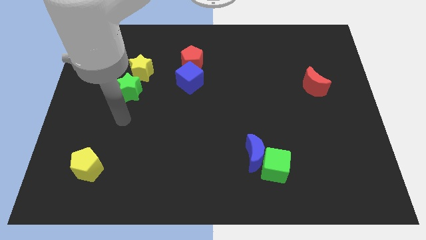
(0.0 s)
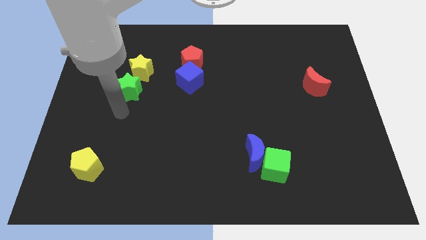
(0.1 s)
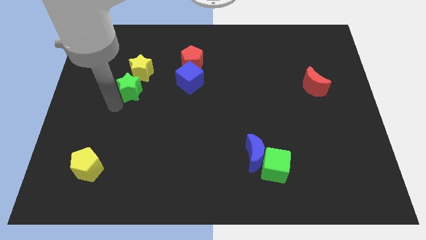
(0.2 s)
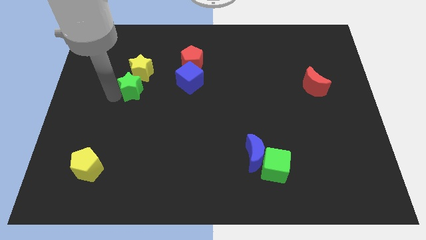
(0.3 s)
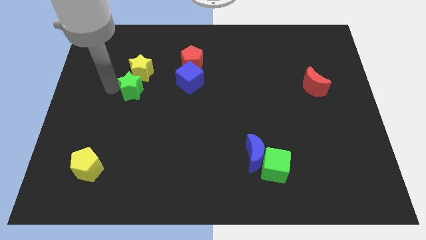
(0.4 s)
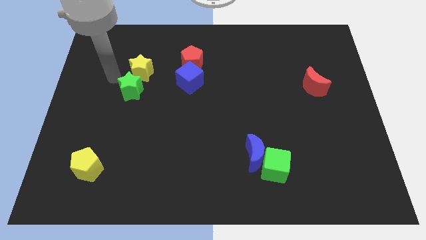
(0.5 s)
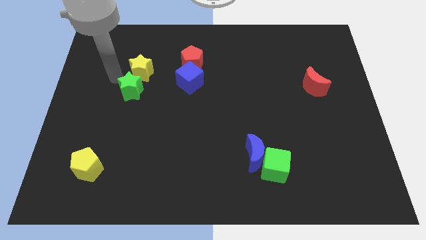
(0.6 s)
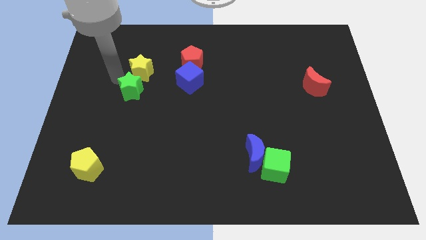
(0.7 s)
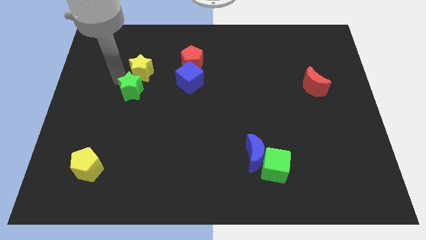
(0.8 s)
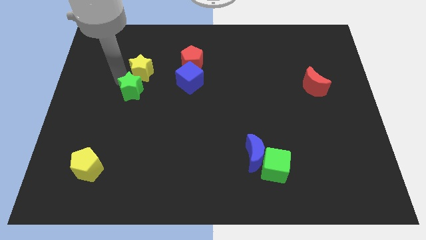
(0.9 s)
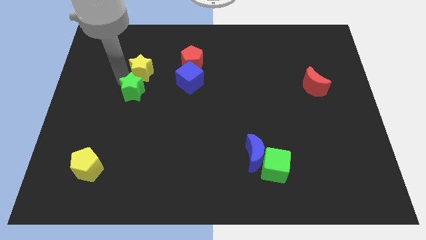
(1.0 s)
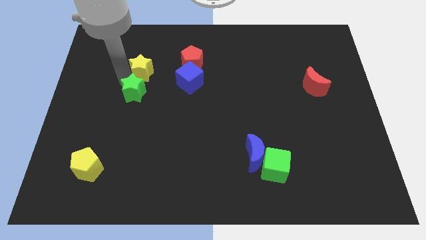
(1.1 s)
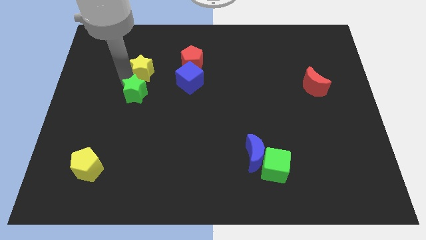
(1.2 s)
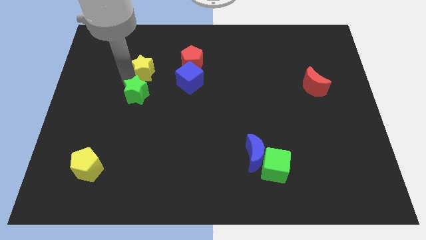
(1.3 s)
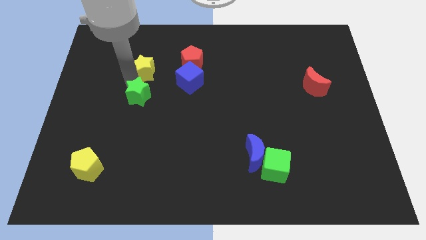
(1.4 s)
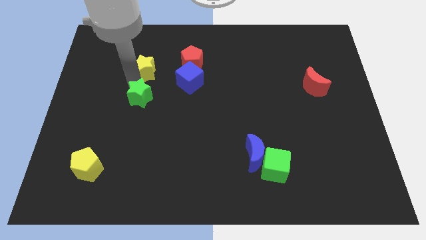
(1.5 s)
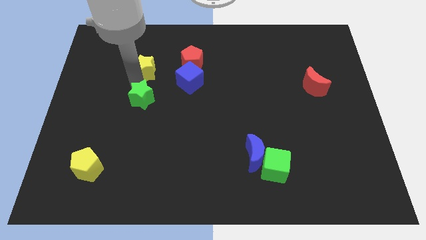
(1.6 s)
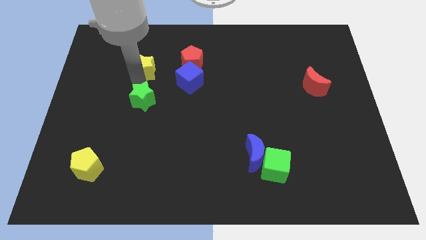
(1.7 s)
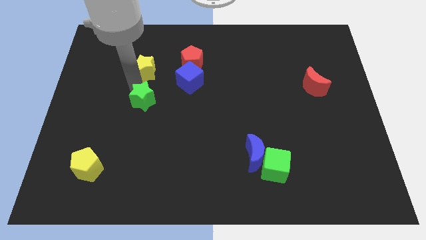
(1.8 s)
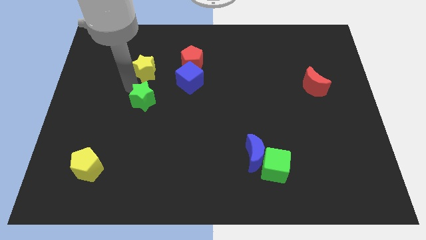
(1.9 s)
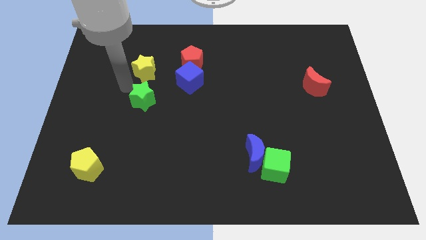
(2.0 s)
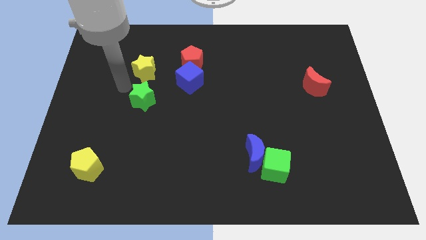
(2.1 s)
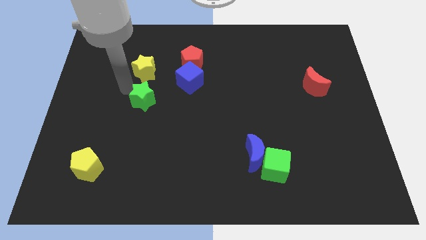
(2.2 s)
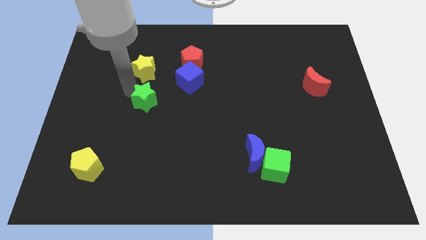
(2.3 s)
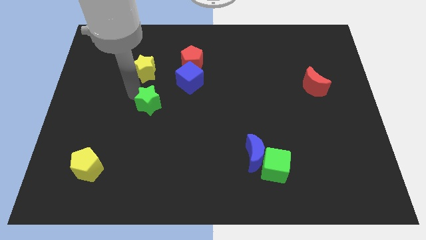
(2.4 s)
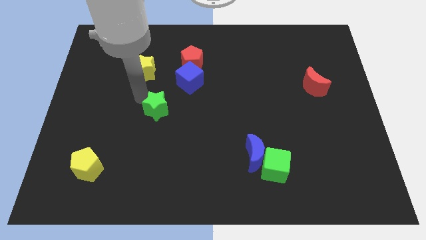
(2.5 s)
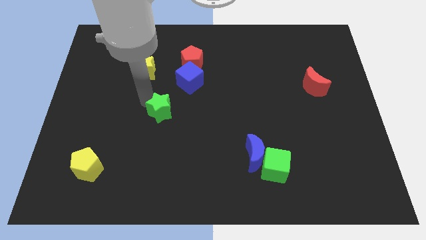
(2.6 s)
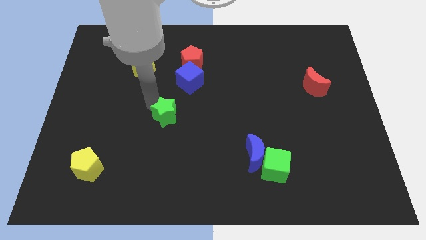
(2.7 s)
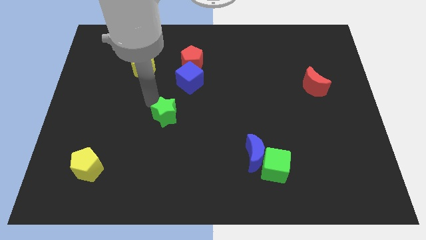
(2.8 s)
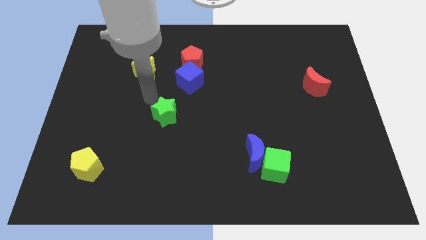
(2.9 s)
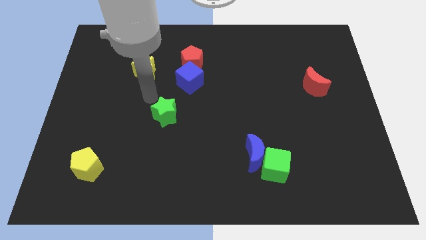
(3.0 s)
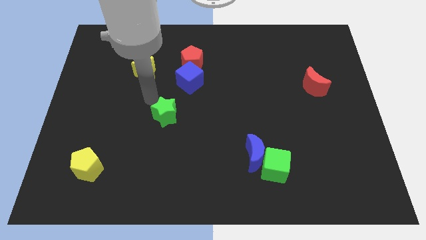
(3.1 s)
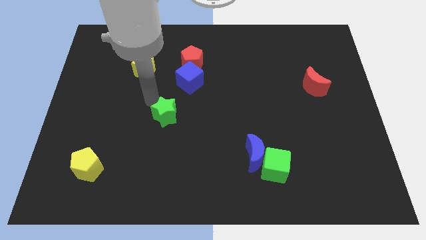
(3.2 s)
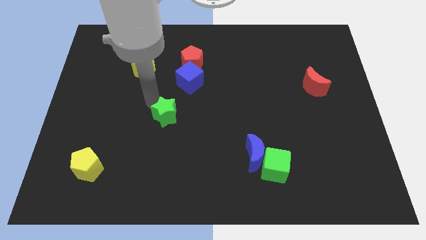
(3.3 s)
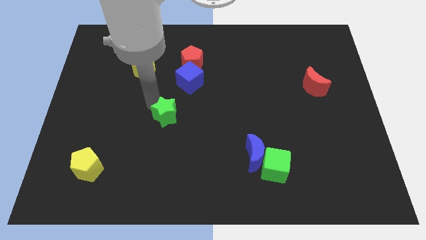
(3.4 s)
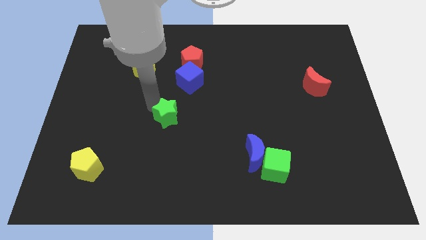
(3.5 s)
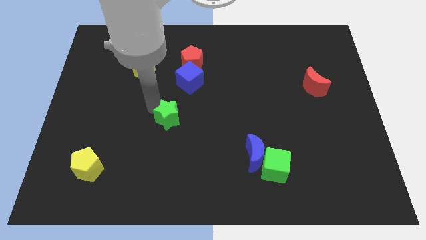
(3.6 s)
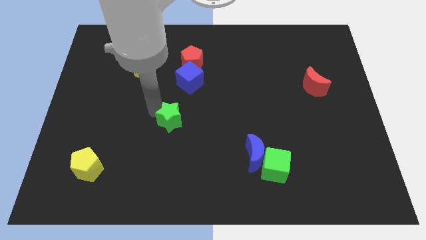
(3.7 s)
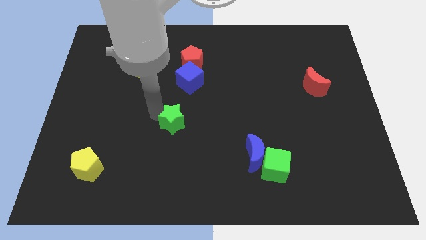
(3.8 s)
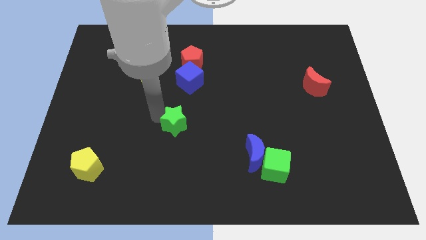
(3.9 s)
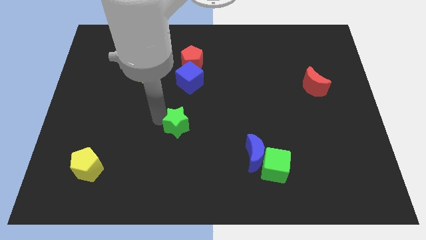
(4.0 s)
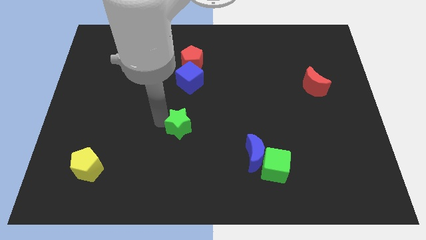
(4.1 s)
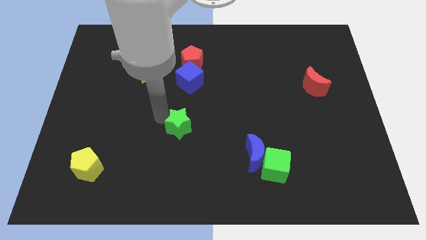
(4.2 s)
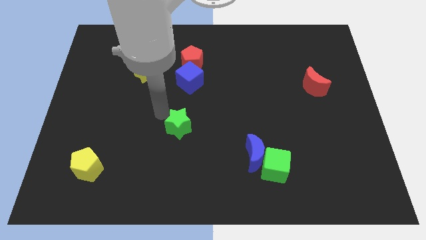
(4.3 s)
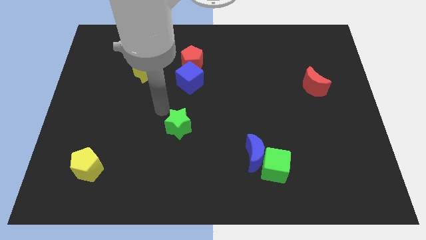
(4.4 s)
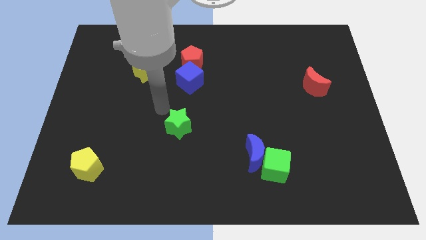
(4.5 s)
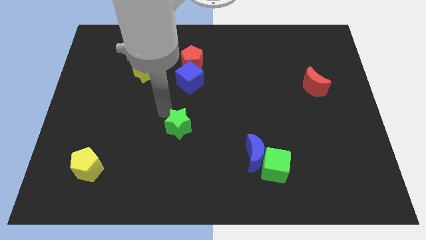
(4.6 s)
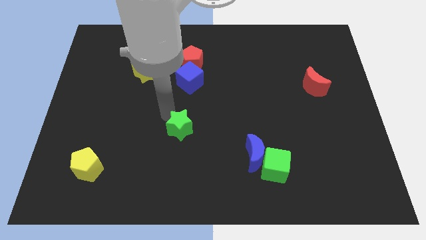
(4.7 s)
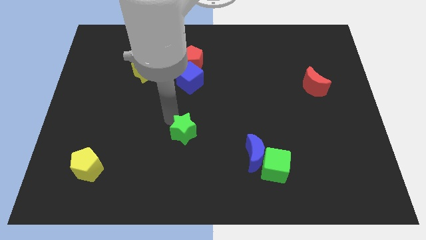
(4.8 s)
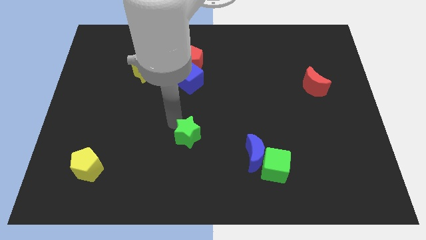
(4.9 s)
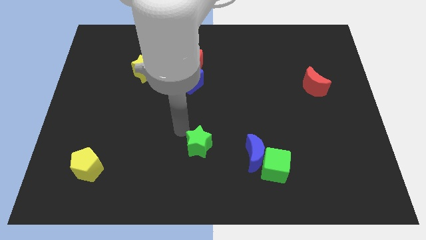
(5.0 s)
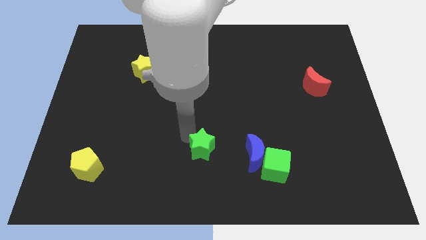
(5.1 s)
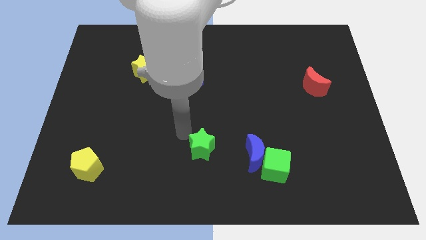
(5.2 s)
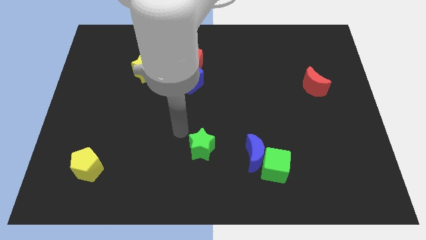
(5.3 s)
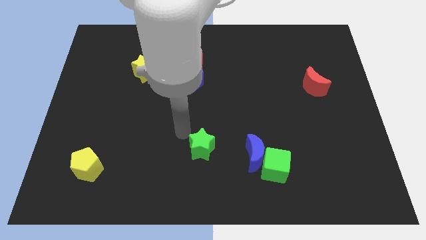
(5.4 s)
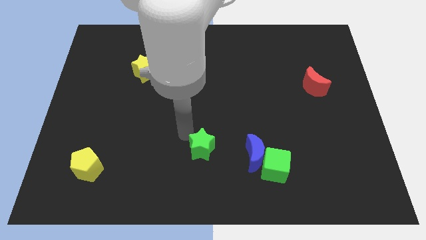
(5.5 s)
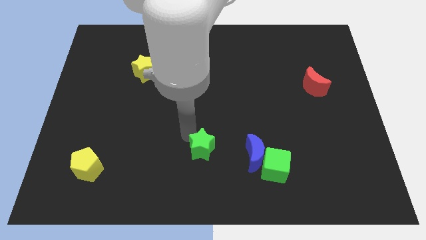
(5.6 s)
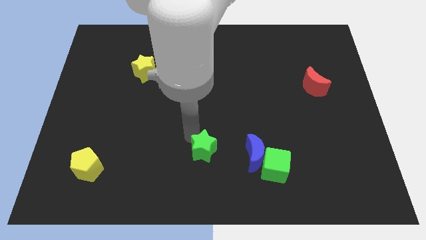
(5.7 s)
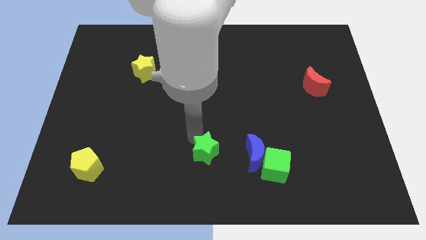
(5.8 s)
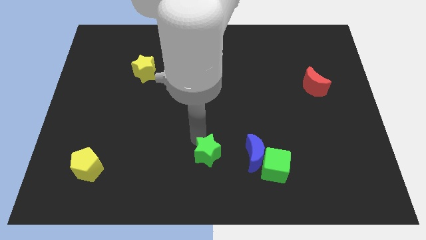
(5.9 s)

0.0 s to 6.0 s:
push the green star left of the green cube

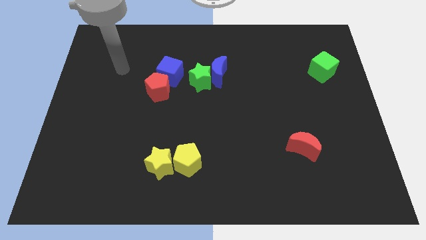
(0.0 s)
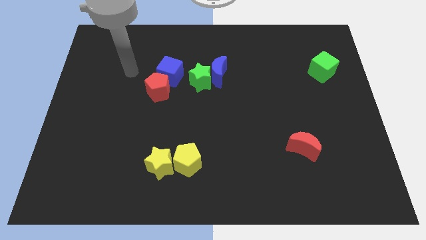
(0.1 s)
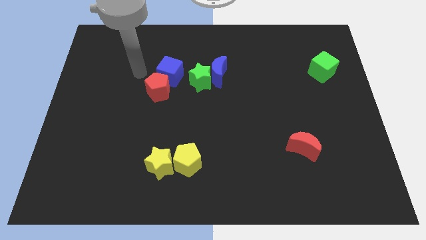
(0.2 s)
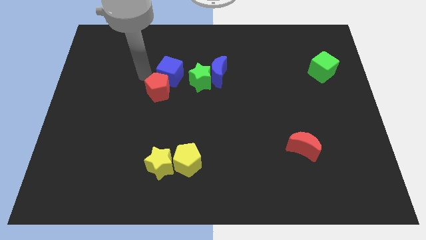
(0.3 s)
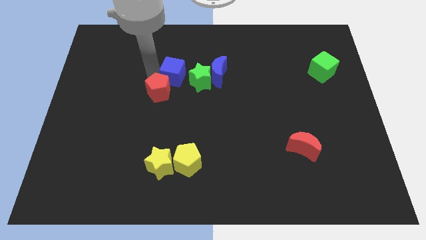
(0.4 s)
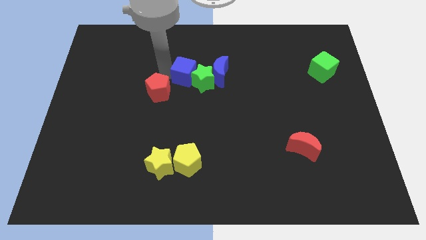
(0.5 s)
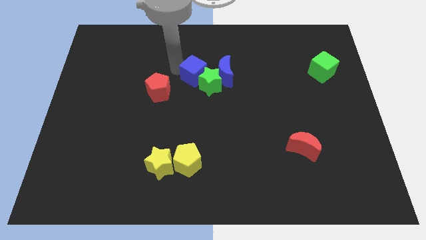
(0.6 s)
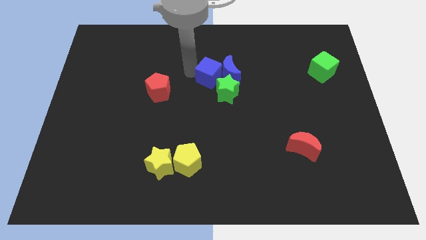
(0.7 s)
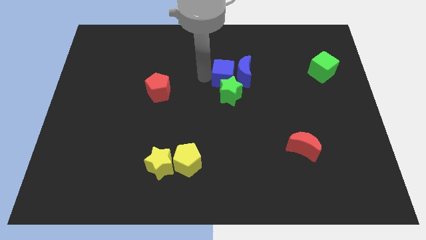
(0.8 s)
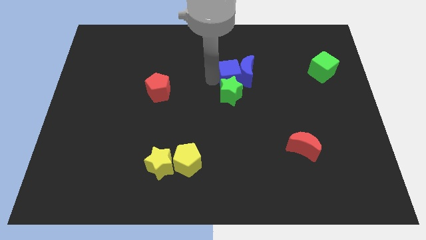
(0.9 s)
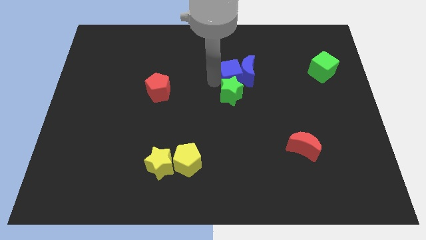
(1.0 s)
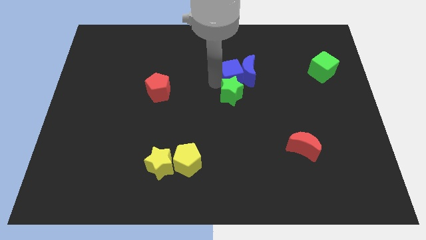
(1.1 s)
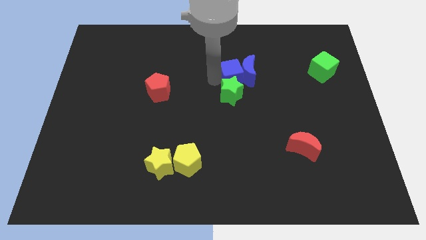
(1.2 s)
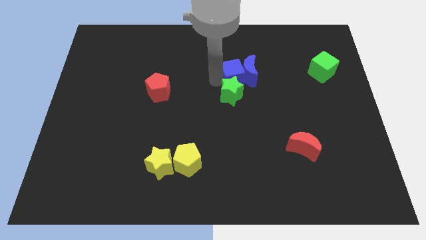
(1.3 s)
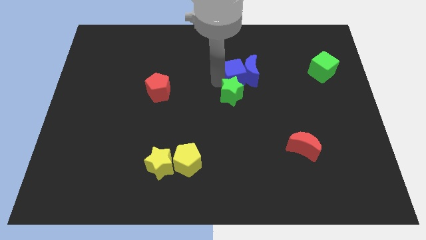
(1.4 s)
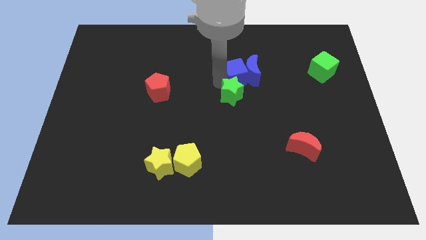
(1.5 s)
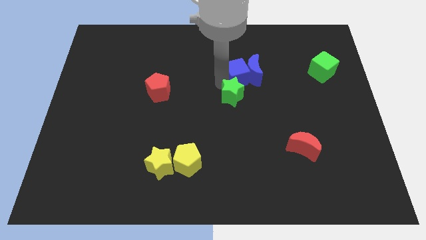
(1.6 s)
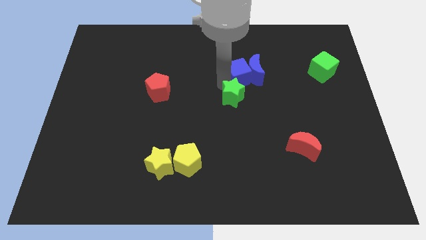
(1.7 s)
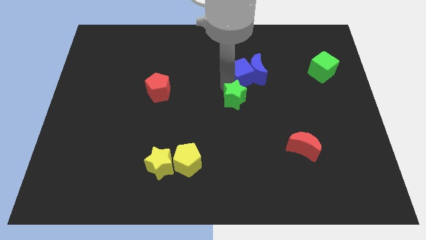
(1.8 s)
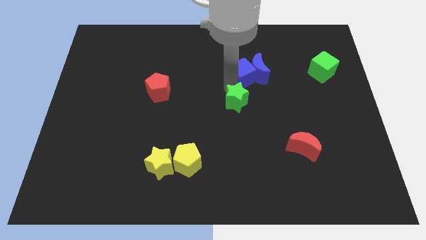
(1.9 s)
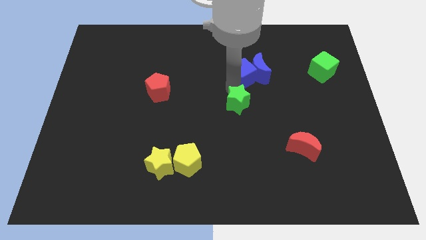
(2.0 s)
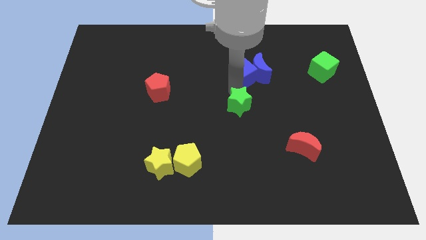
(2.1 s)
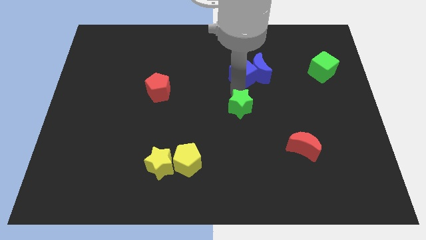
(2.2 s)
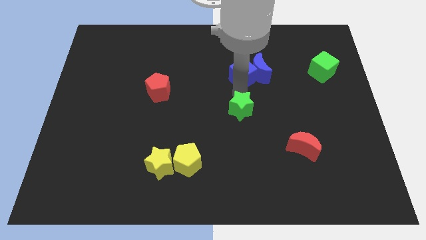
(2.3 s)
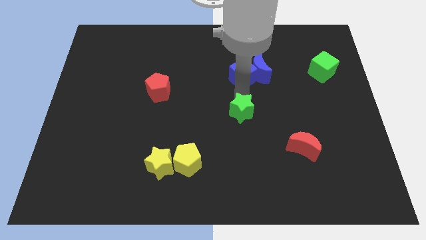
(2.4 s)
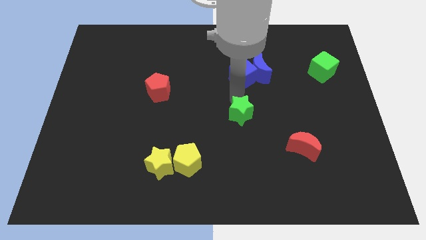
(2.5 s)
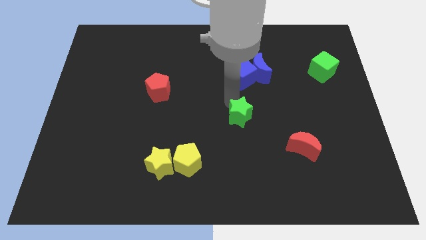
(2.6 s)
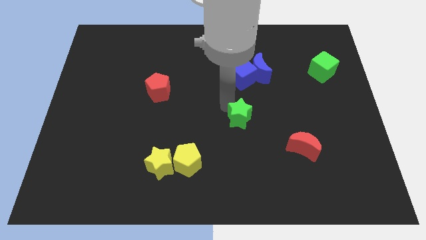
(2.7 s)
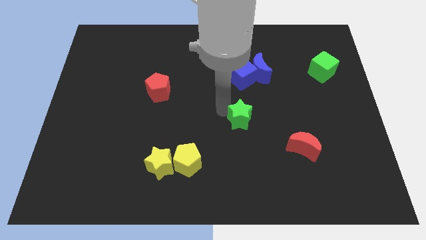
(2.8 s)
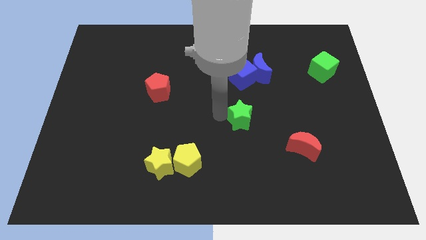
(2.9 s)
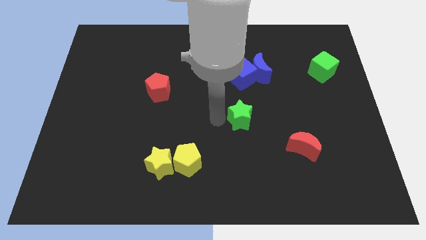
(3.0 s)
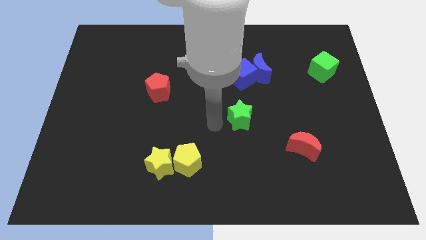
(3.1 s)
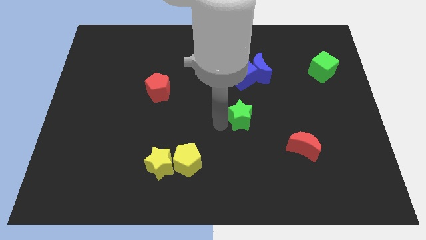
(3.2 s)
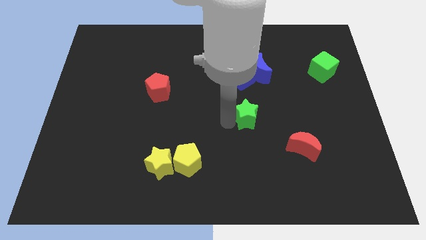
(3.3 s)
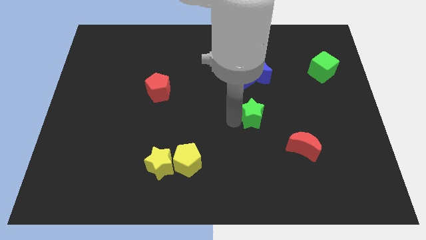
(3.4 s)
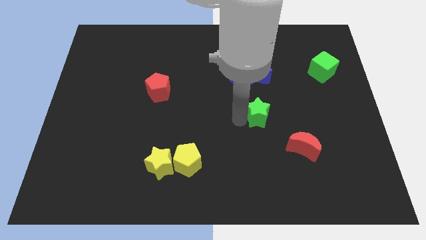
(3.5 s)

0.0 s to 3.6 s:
put the green star to the top left of the red moon
